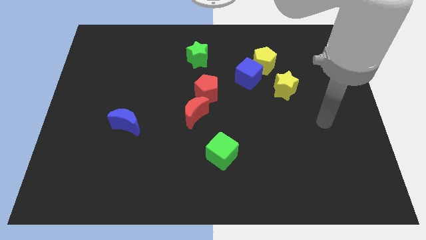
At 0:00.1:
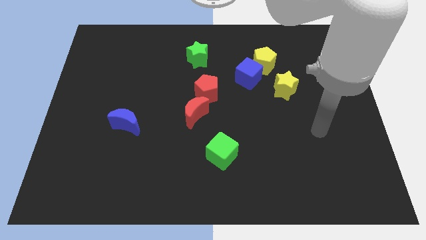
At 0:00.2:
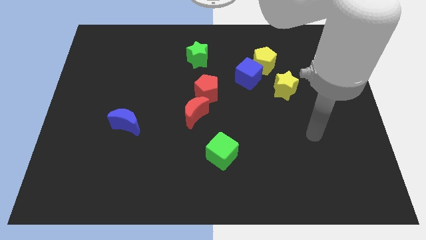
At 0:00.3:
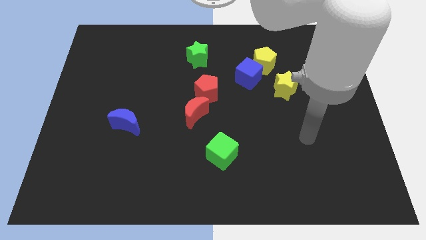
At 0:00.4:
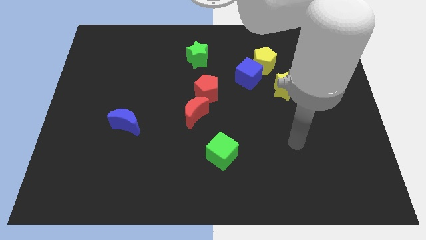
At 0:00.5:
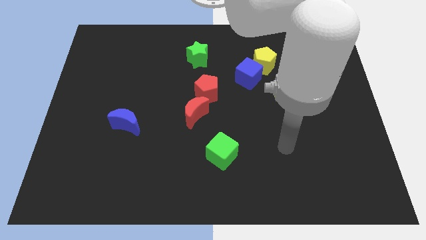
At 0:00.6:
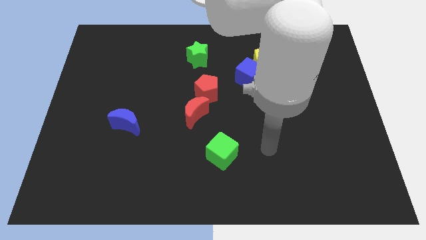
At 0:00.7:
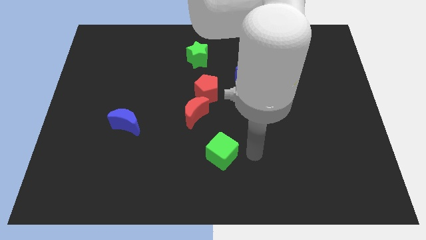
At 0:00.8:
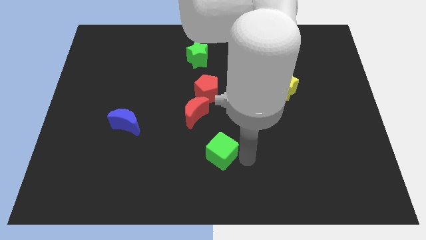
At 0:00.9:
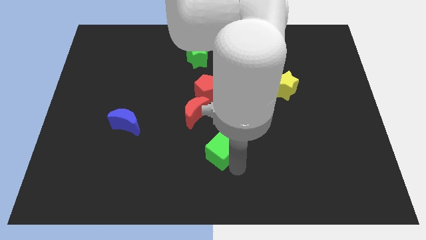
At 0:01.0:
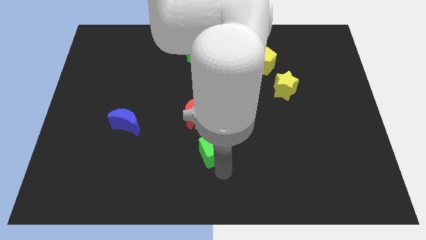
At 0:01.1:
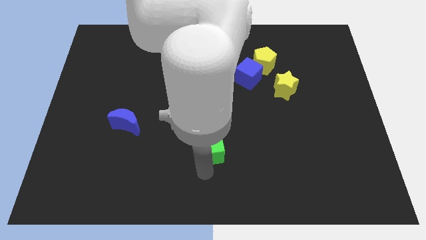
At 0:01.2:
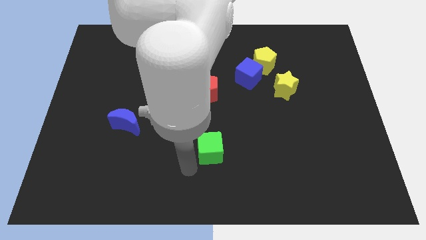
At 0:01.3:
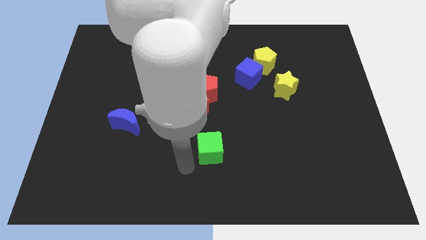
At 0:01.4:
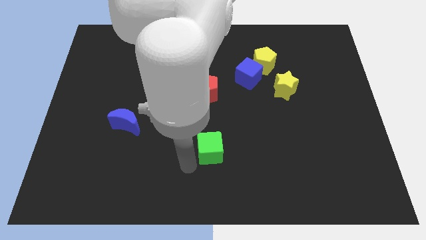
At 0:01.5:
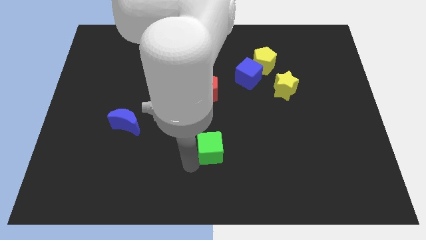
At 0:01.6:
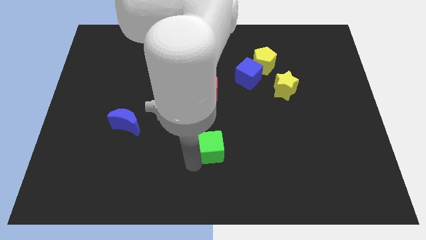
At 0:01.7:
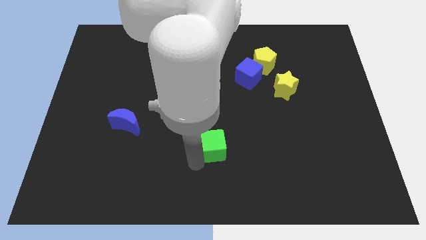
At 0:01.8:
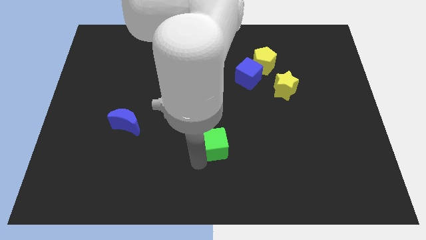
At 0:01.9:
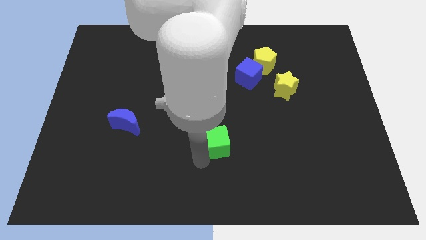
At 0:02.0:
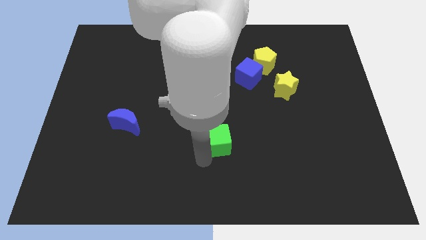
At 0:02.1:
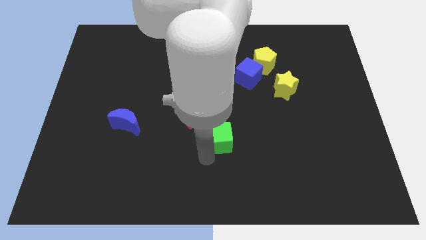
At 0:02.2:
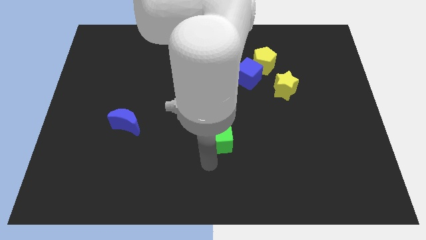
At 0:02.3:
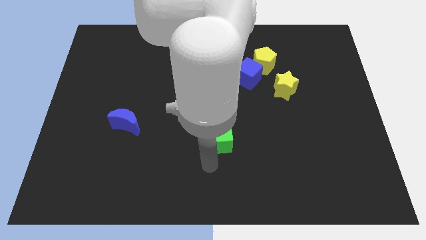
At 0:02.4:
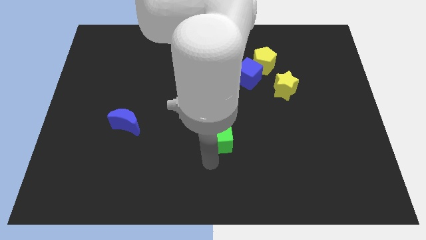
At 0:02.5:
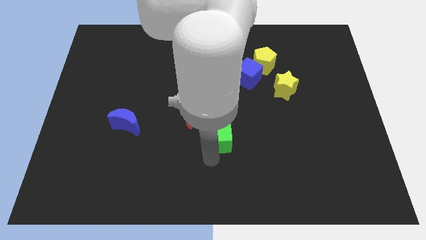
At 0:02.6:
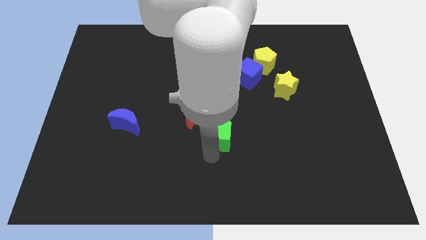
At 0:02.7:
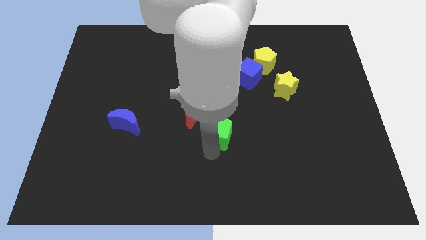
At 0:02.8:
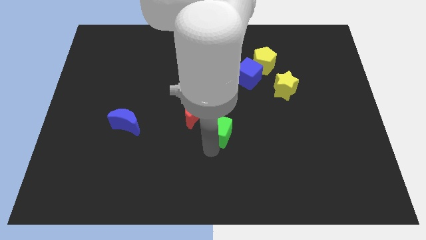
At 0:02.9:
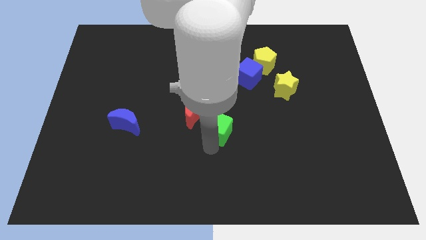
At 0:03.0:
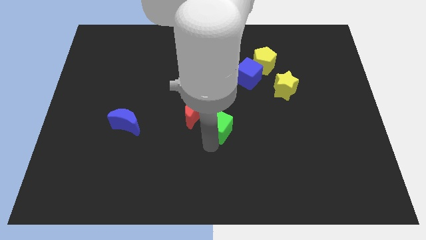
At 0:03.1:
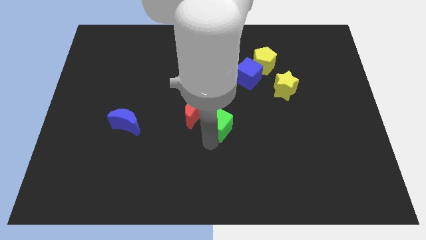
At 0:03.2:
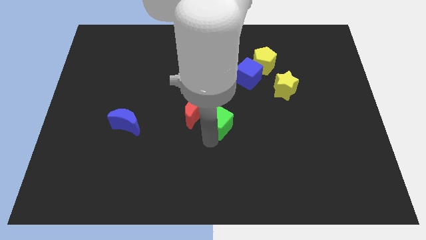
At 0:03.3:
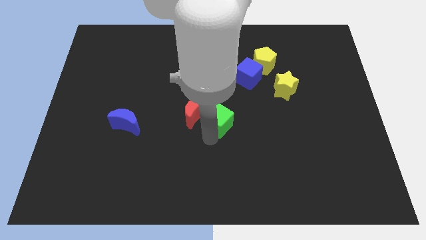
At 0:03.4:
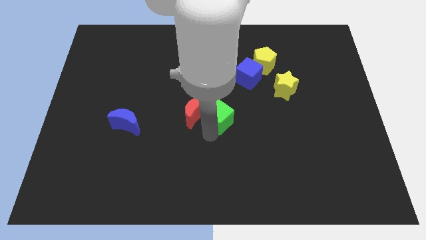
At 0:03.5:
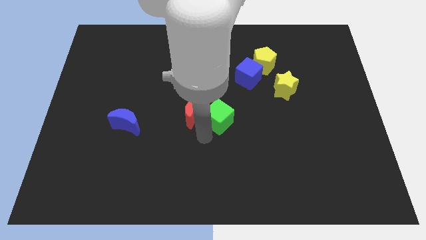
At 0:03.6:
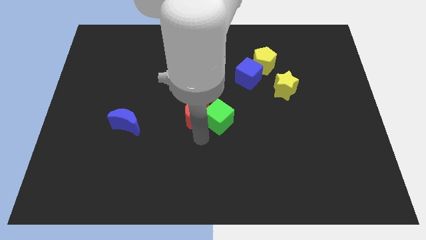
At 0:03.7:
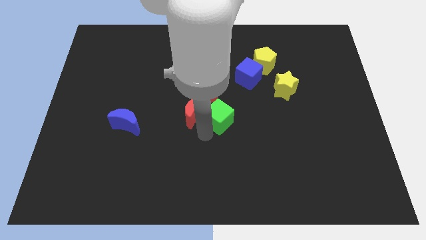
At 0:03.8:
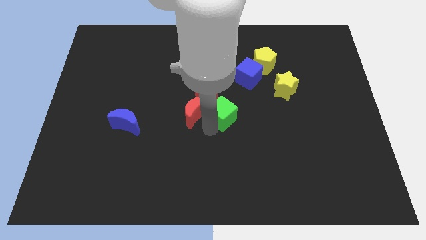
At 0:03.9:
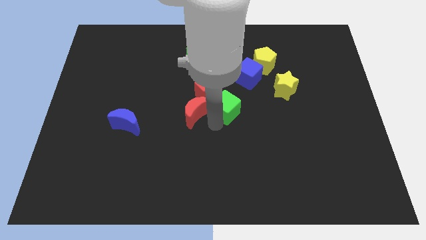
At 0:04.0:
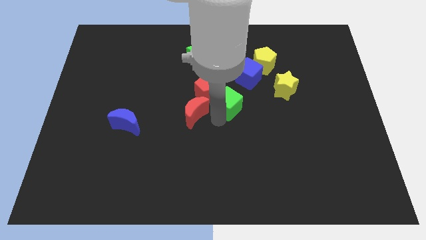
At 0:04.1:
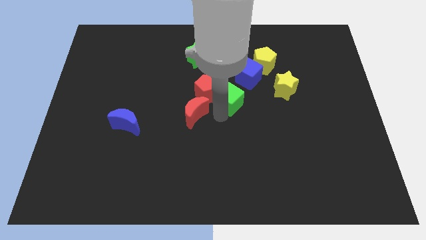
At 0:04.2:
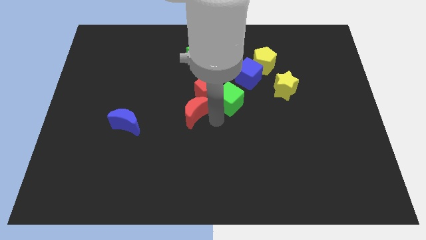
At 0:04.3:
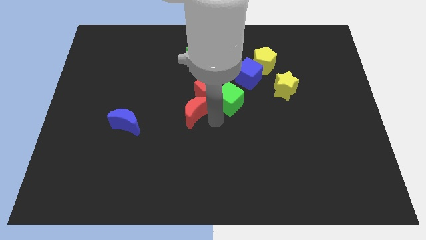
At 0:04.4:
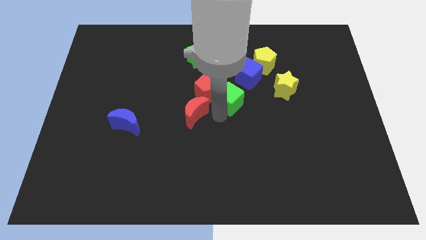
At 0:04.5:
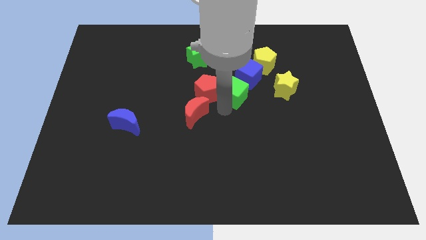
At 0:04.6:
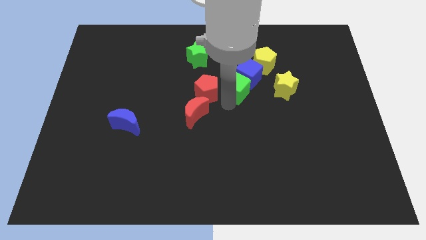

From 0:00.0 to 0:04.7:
put the green cube to the blue cube

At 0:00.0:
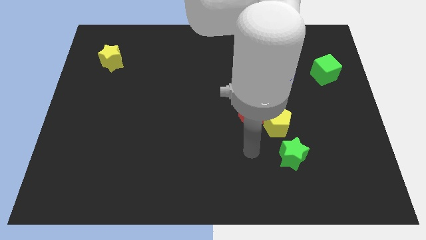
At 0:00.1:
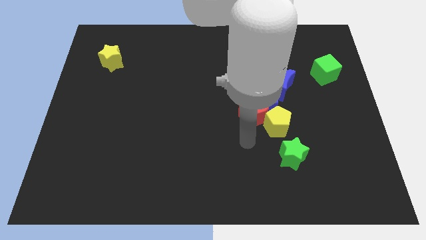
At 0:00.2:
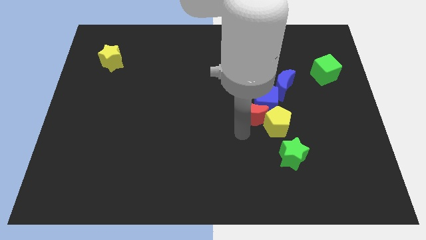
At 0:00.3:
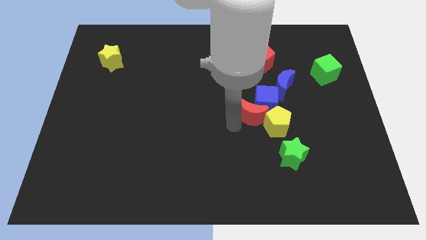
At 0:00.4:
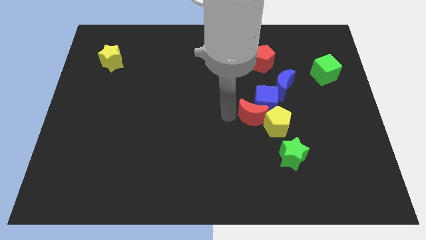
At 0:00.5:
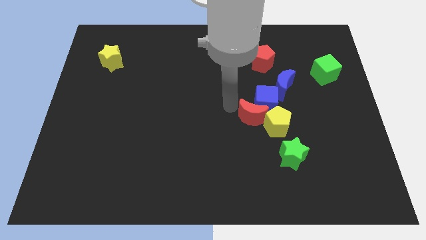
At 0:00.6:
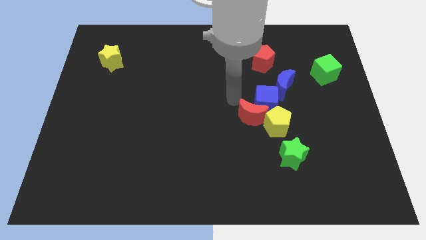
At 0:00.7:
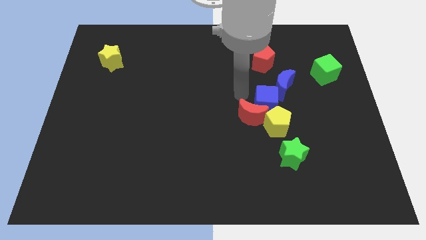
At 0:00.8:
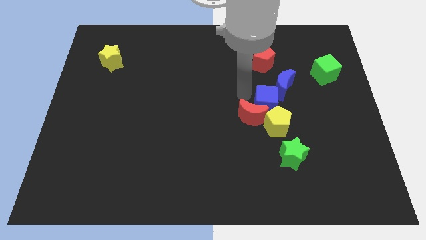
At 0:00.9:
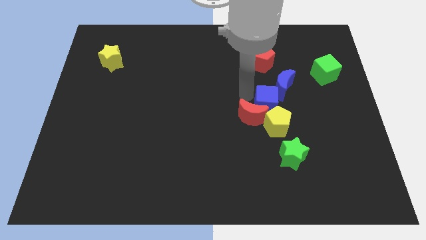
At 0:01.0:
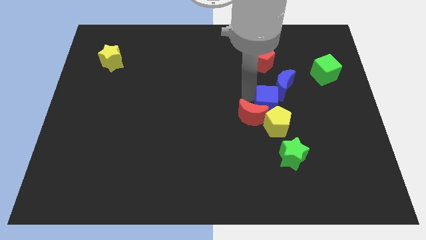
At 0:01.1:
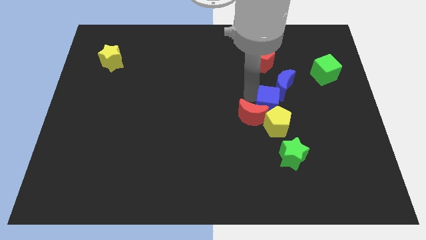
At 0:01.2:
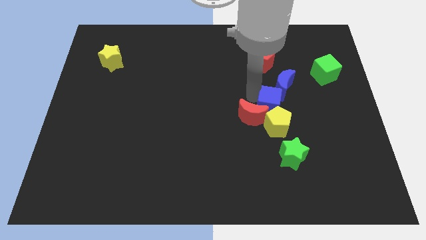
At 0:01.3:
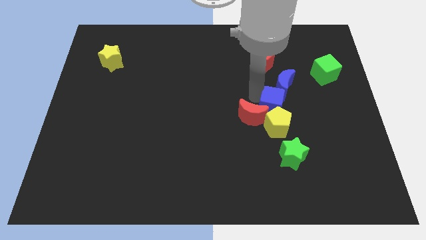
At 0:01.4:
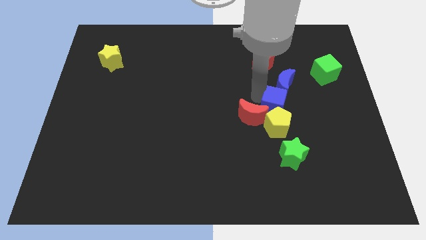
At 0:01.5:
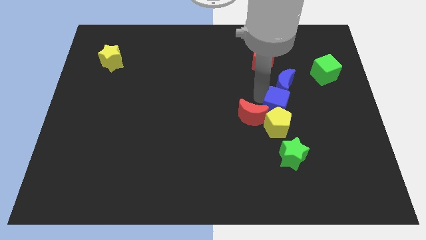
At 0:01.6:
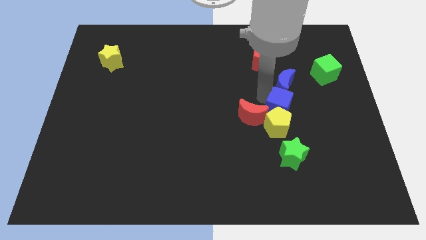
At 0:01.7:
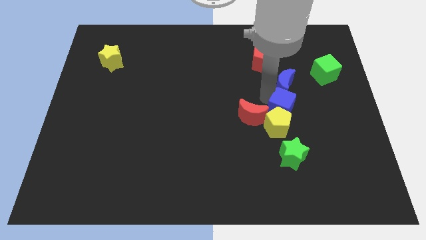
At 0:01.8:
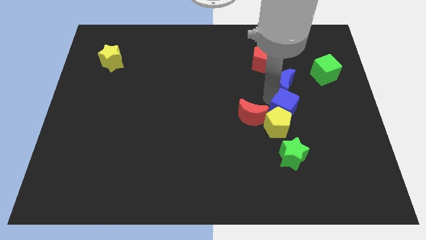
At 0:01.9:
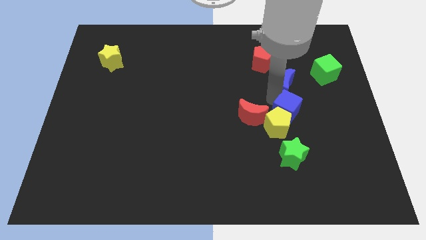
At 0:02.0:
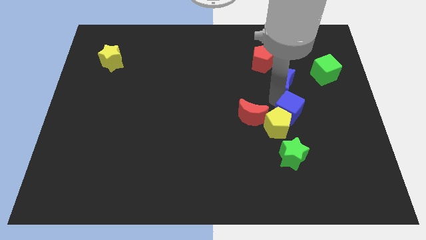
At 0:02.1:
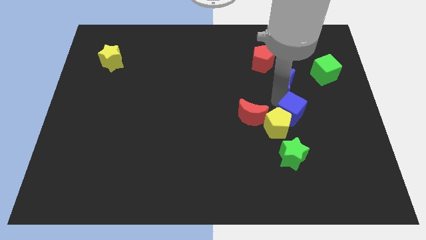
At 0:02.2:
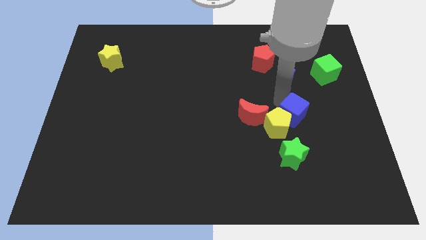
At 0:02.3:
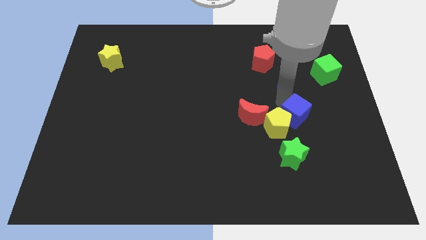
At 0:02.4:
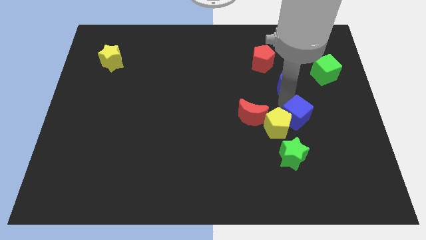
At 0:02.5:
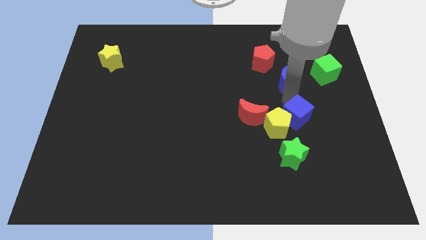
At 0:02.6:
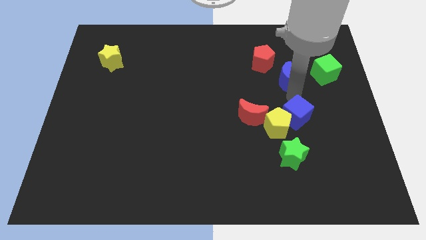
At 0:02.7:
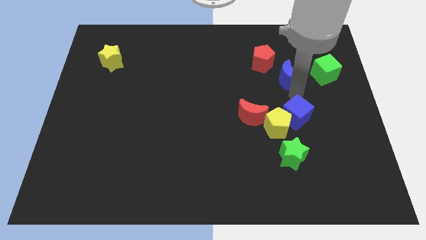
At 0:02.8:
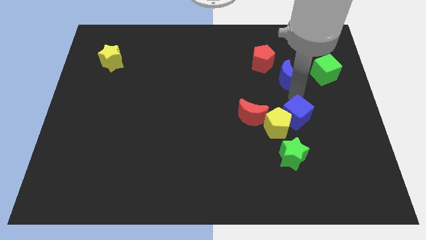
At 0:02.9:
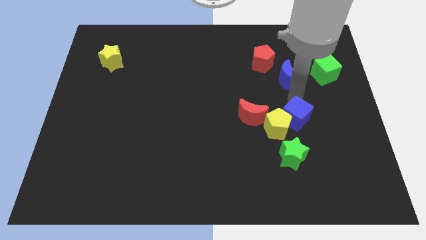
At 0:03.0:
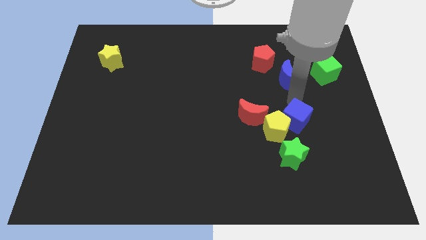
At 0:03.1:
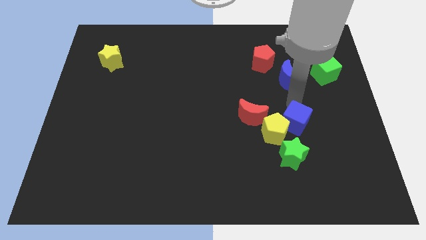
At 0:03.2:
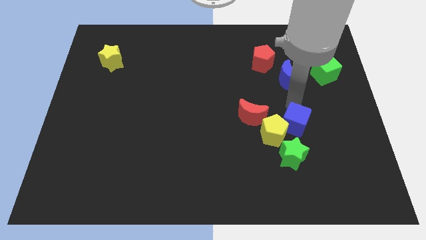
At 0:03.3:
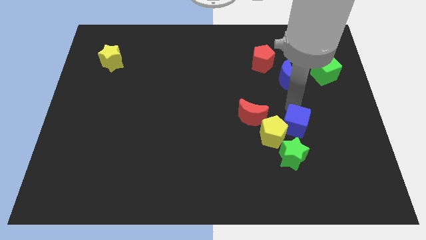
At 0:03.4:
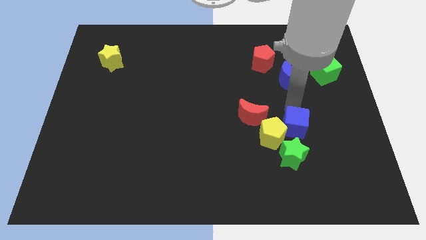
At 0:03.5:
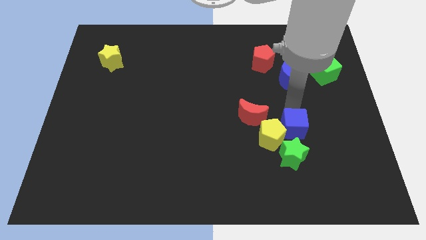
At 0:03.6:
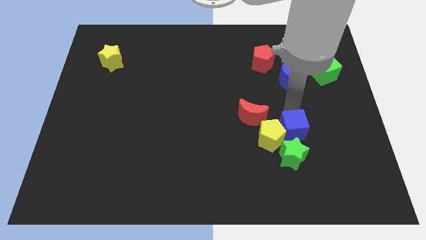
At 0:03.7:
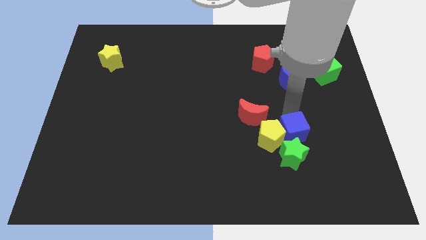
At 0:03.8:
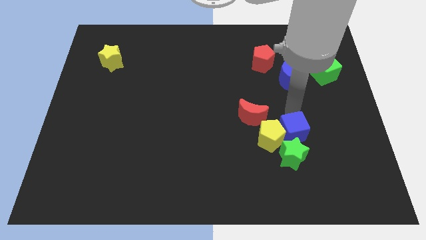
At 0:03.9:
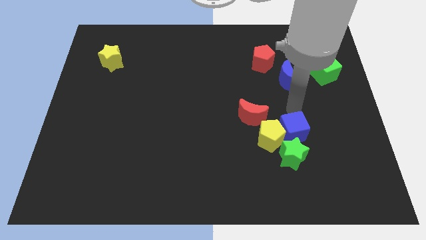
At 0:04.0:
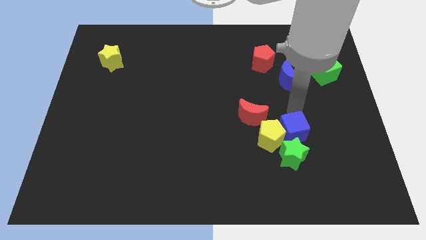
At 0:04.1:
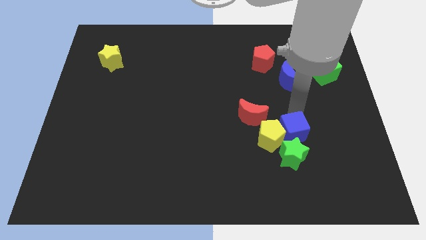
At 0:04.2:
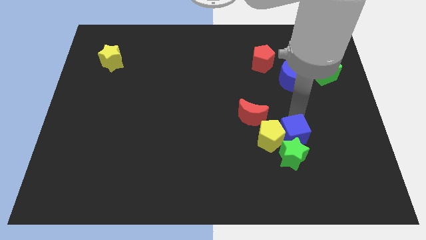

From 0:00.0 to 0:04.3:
put the blue cube close to the green star
